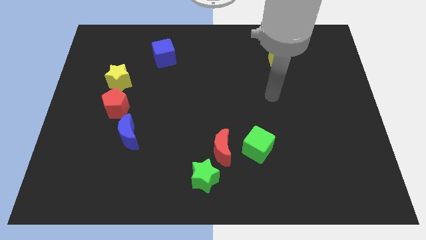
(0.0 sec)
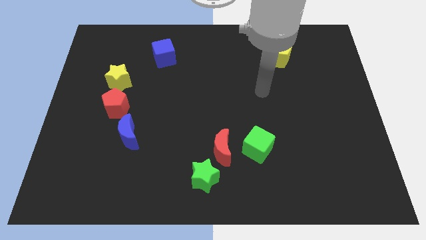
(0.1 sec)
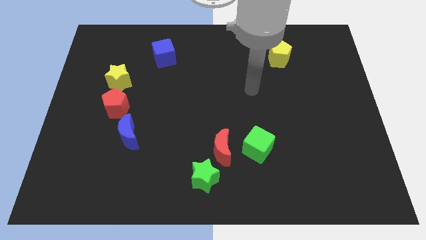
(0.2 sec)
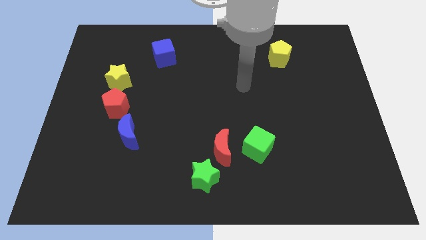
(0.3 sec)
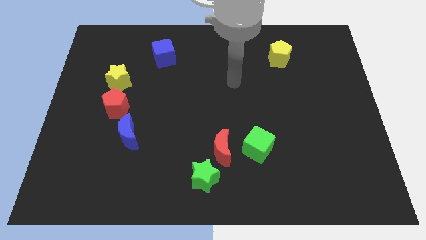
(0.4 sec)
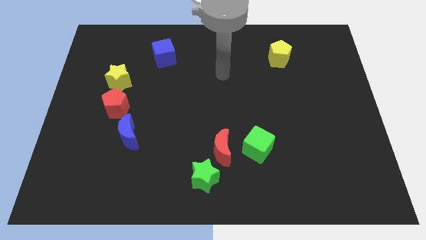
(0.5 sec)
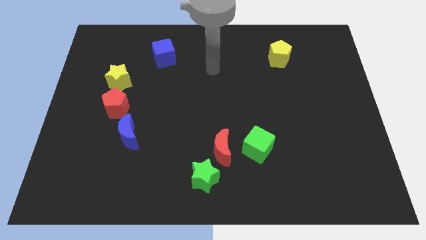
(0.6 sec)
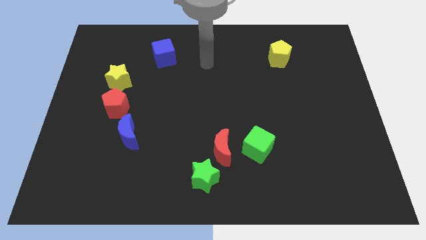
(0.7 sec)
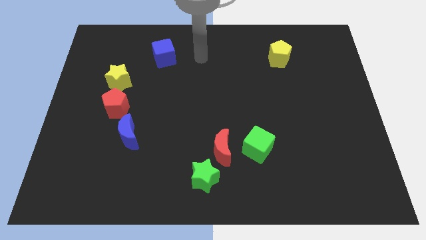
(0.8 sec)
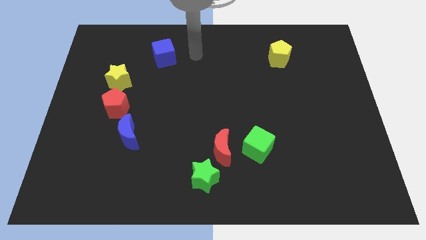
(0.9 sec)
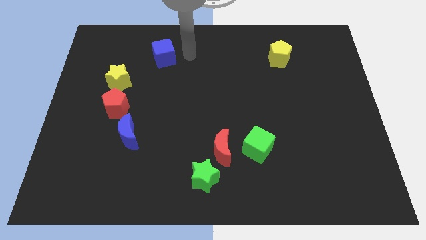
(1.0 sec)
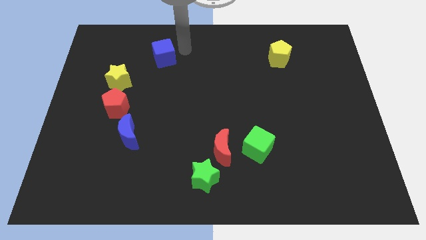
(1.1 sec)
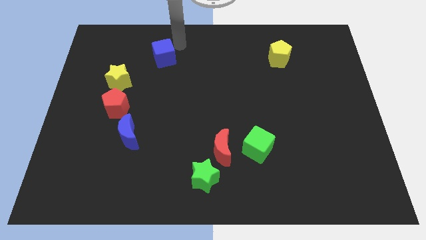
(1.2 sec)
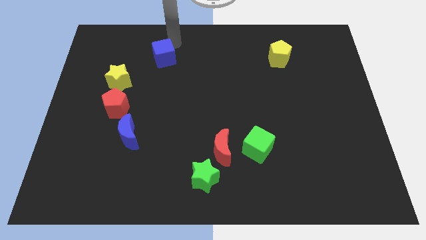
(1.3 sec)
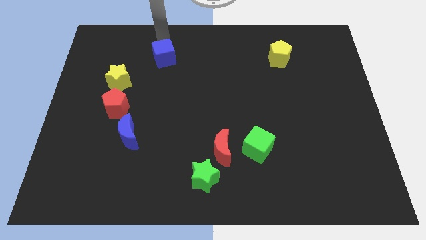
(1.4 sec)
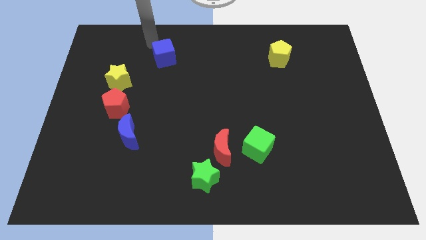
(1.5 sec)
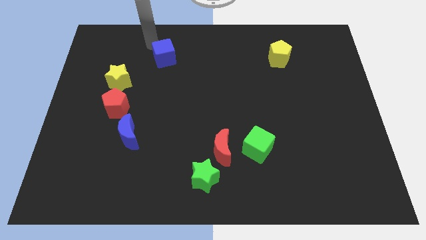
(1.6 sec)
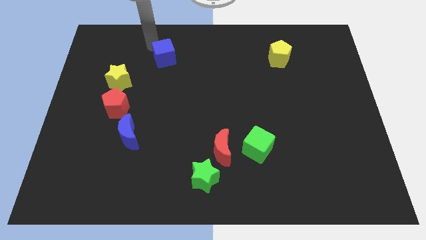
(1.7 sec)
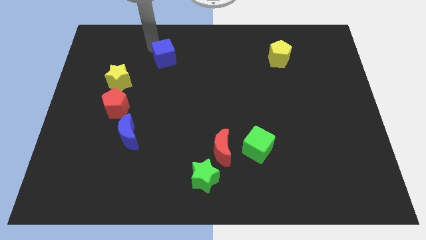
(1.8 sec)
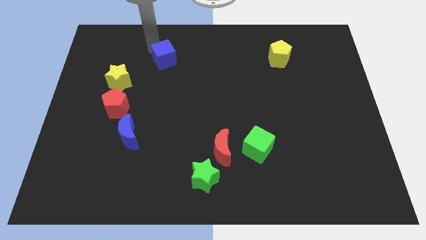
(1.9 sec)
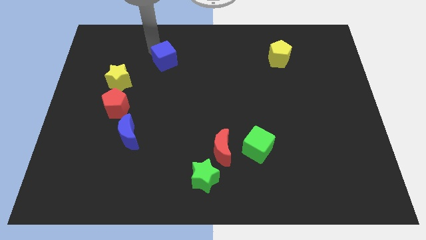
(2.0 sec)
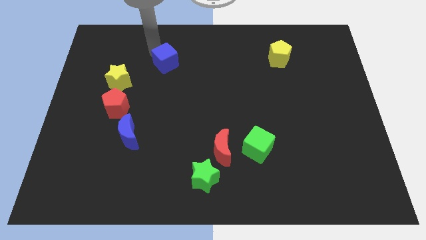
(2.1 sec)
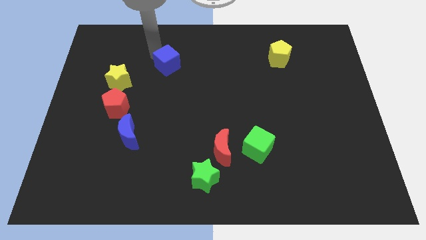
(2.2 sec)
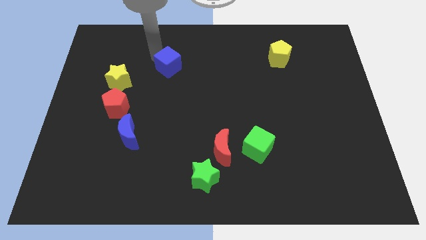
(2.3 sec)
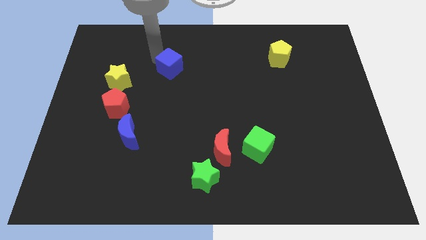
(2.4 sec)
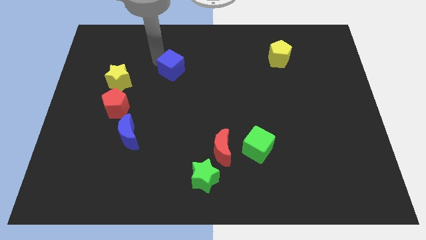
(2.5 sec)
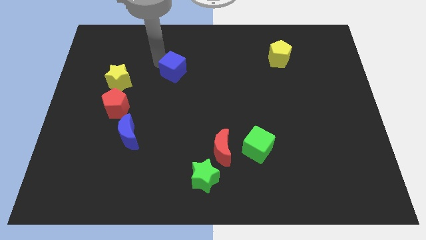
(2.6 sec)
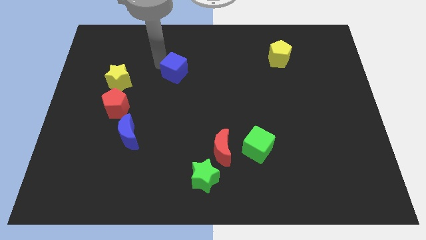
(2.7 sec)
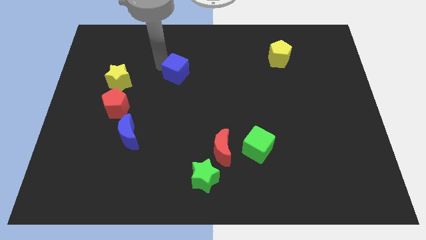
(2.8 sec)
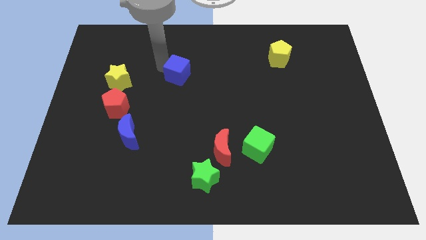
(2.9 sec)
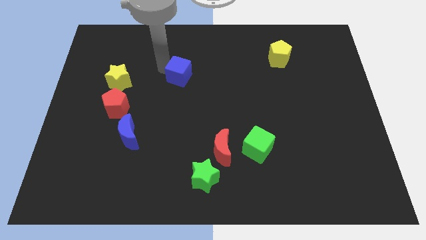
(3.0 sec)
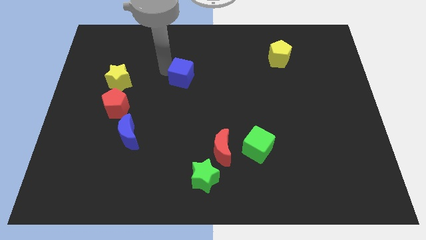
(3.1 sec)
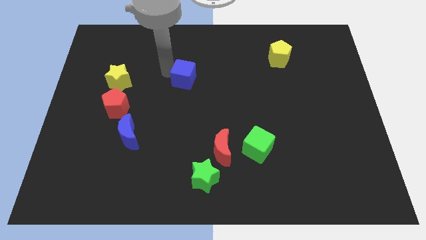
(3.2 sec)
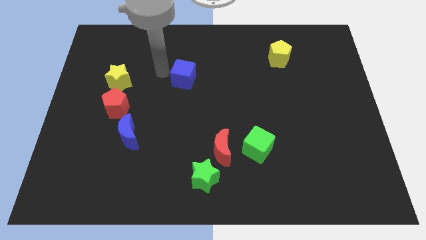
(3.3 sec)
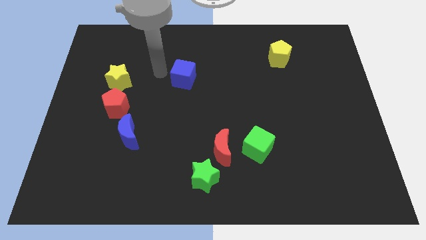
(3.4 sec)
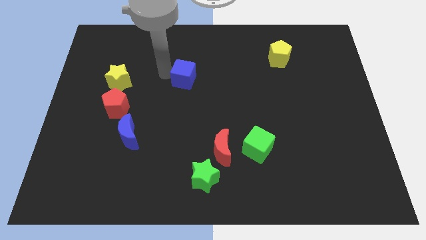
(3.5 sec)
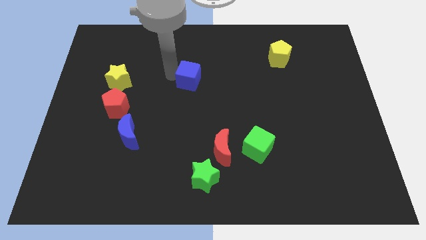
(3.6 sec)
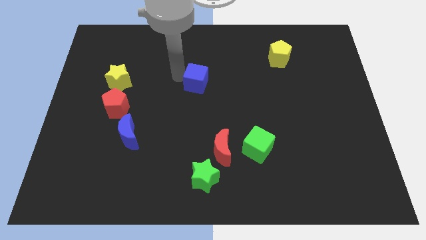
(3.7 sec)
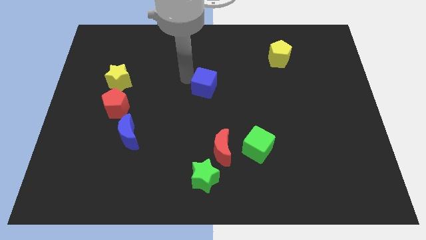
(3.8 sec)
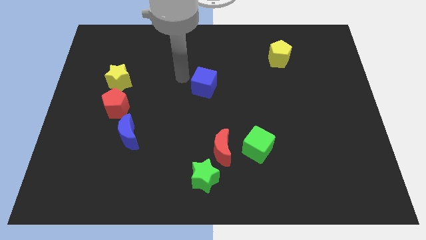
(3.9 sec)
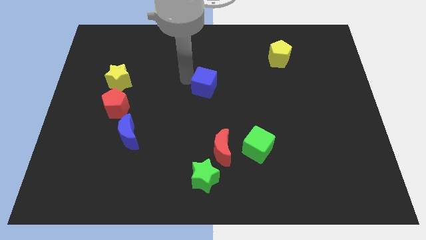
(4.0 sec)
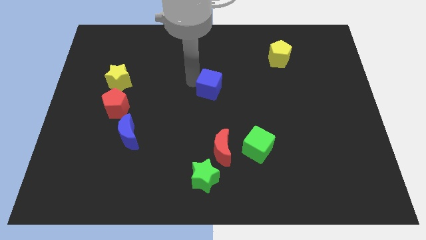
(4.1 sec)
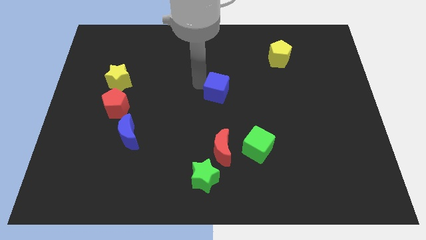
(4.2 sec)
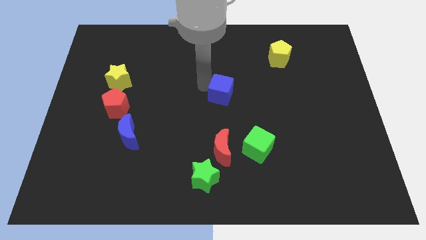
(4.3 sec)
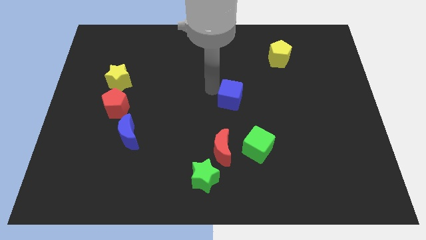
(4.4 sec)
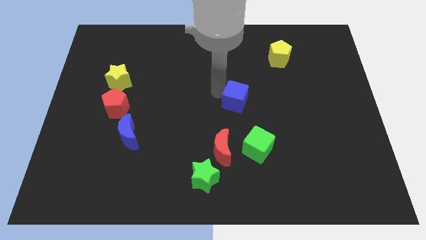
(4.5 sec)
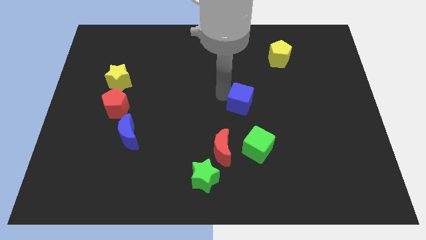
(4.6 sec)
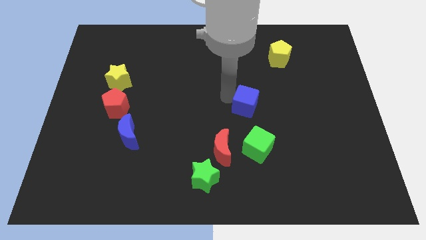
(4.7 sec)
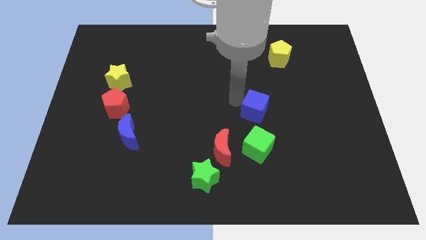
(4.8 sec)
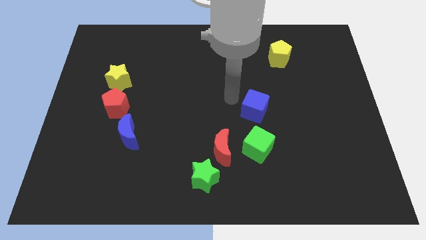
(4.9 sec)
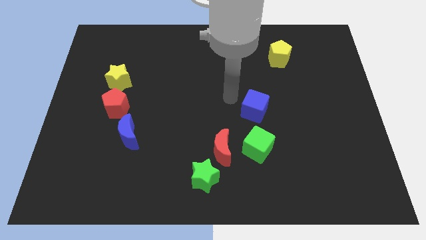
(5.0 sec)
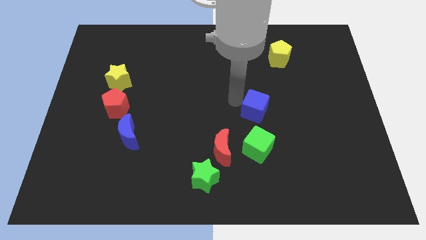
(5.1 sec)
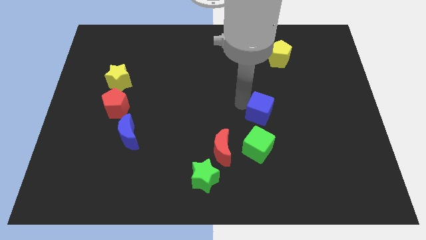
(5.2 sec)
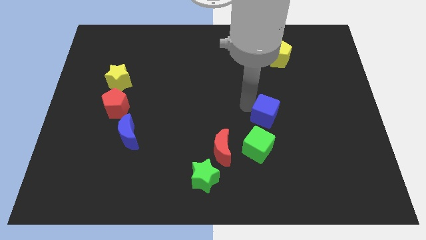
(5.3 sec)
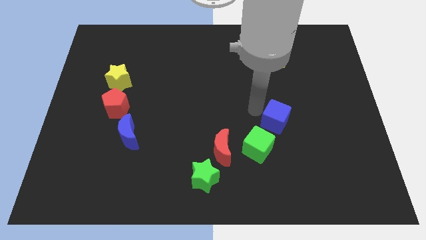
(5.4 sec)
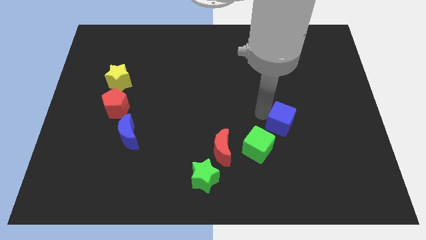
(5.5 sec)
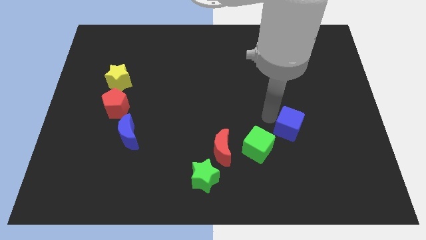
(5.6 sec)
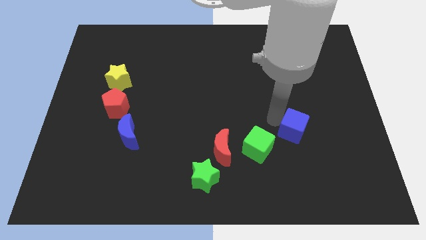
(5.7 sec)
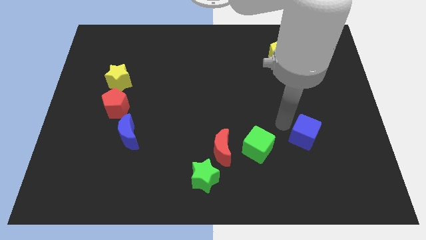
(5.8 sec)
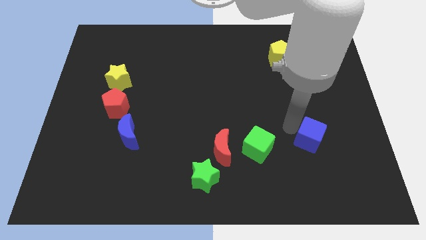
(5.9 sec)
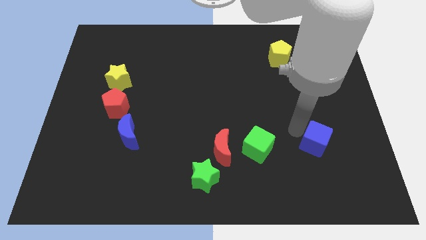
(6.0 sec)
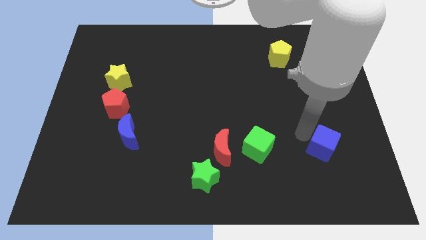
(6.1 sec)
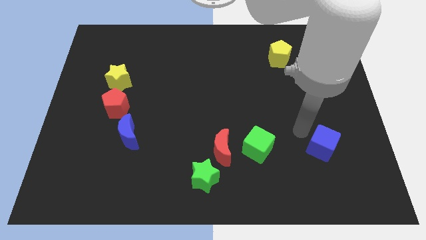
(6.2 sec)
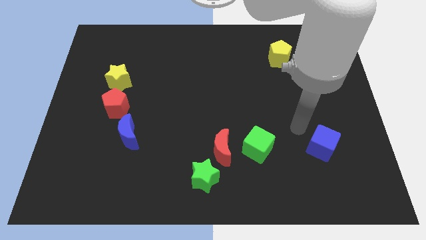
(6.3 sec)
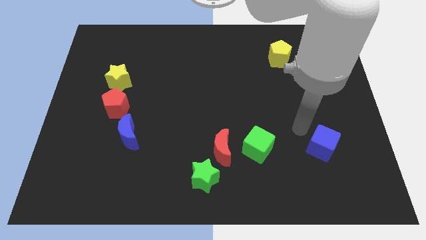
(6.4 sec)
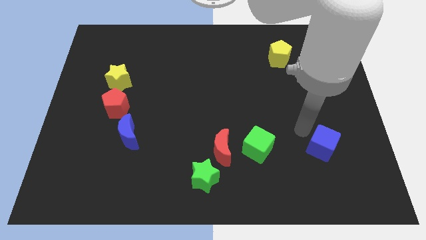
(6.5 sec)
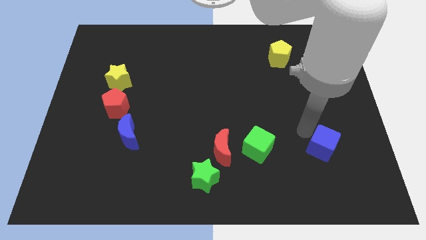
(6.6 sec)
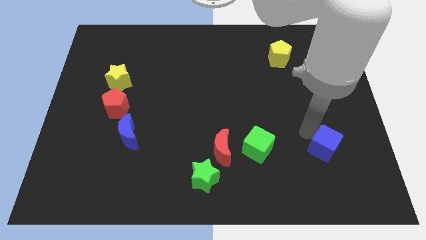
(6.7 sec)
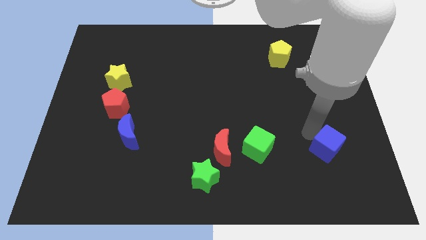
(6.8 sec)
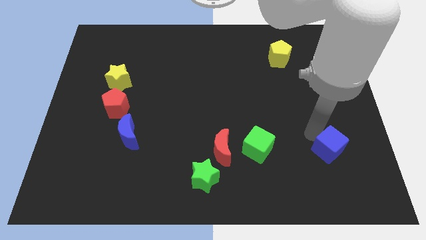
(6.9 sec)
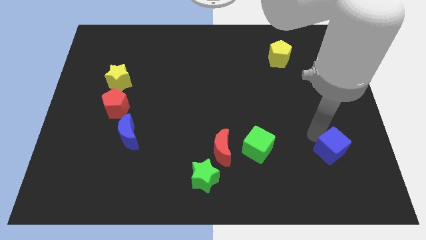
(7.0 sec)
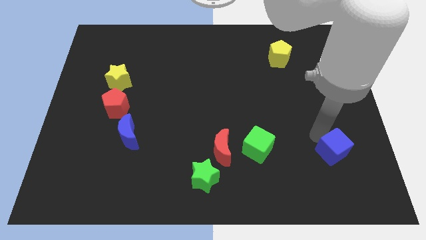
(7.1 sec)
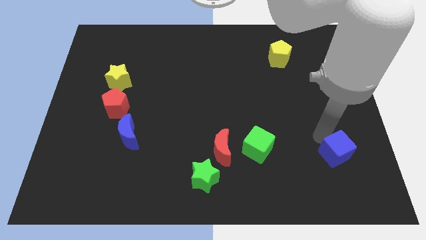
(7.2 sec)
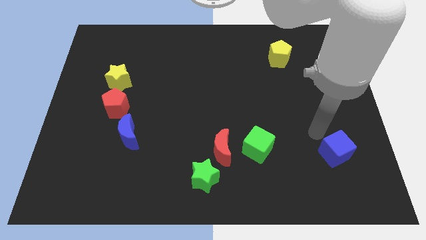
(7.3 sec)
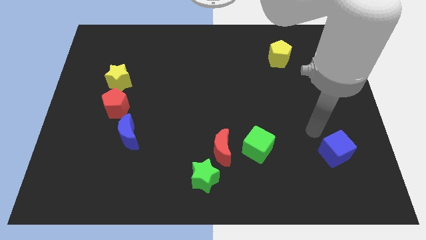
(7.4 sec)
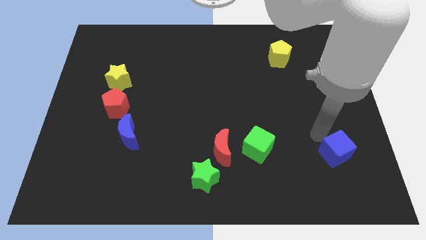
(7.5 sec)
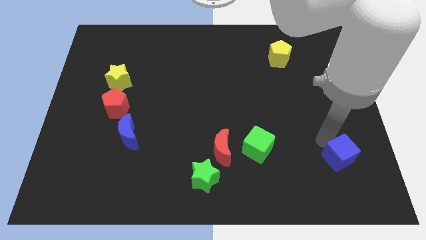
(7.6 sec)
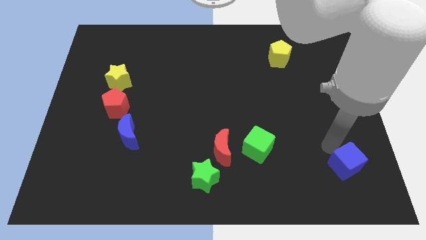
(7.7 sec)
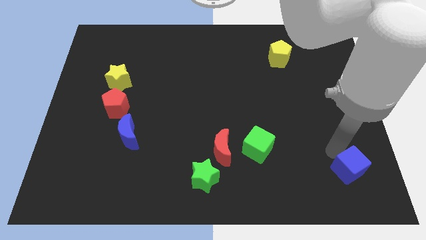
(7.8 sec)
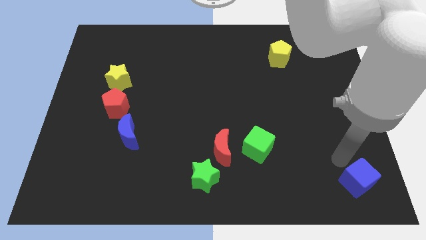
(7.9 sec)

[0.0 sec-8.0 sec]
put the blue cube to the bottom right corner
